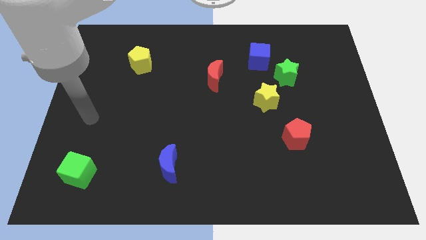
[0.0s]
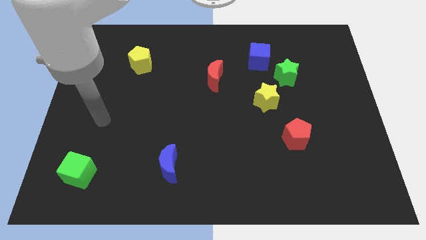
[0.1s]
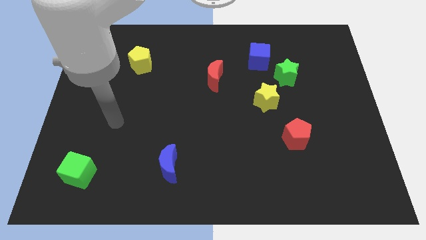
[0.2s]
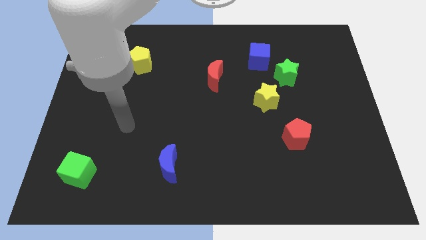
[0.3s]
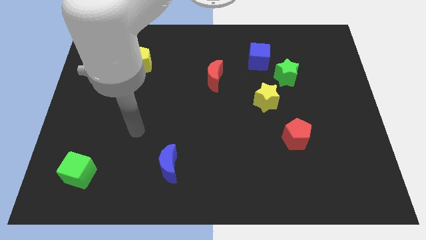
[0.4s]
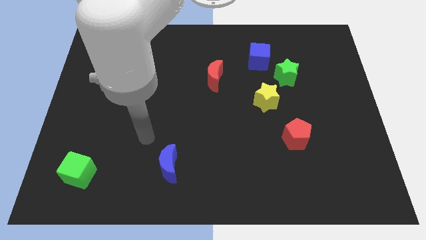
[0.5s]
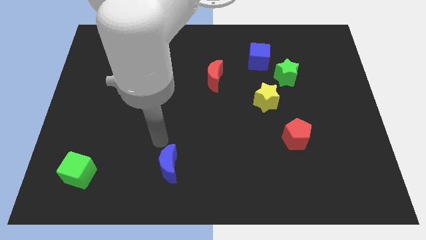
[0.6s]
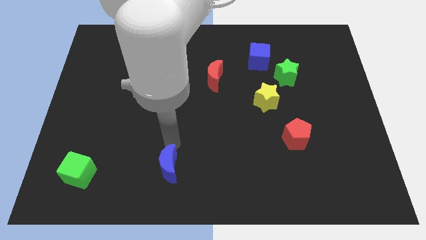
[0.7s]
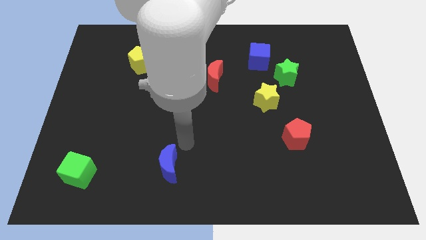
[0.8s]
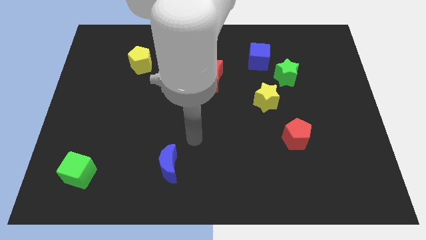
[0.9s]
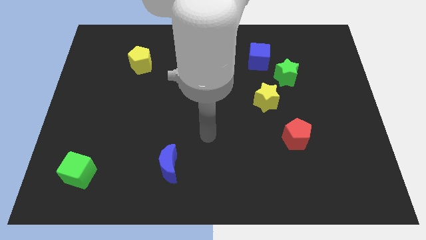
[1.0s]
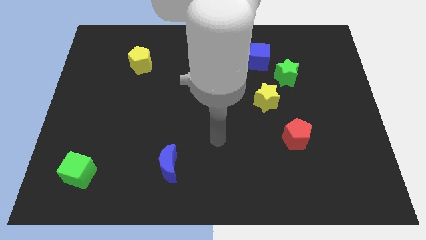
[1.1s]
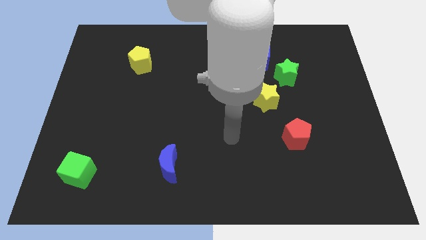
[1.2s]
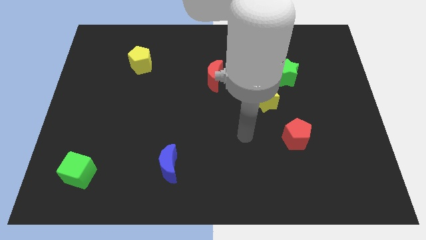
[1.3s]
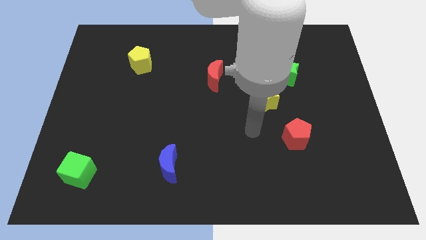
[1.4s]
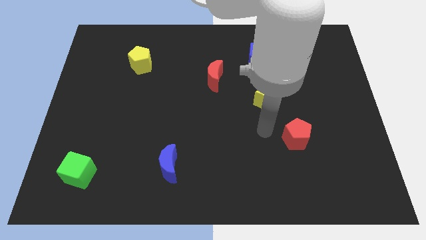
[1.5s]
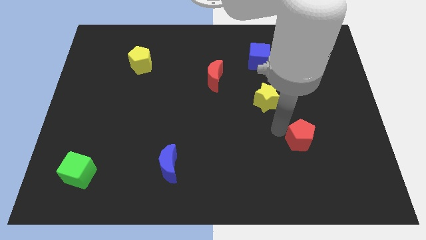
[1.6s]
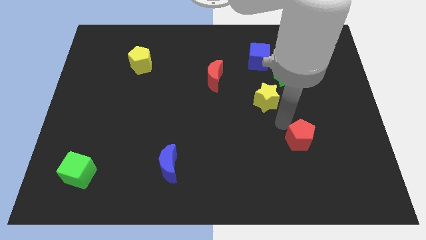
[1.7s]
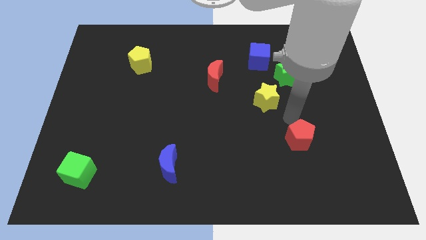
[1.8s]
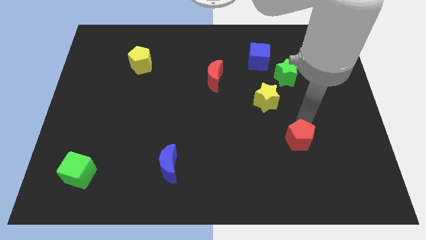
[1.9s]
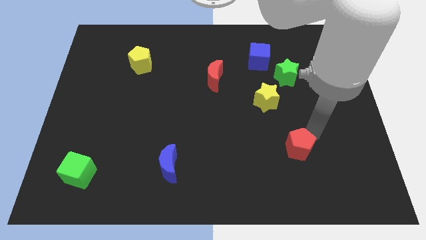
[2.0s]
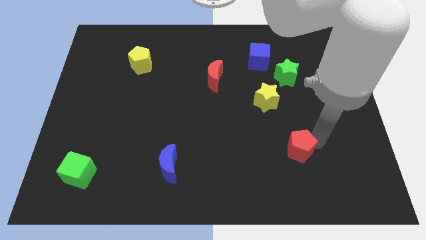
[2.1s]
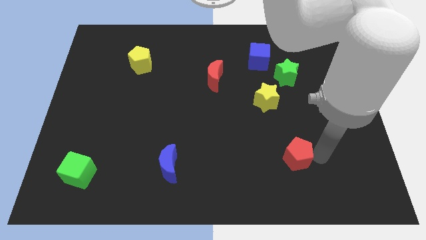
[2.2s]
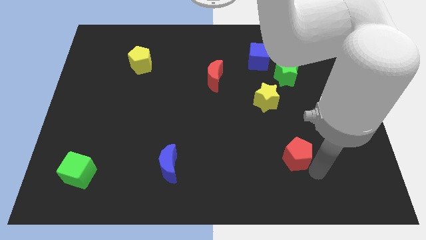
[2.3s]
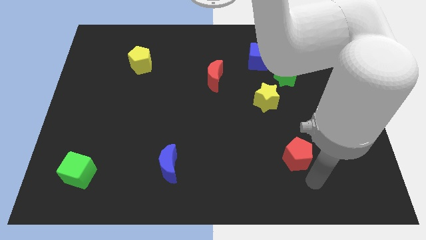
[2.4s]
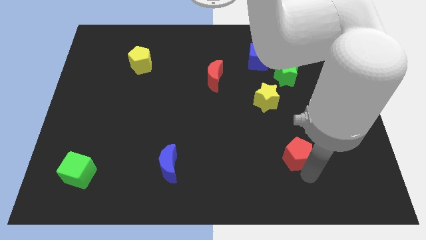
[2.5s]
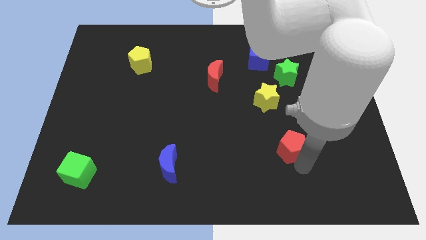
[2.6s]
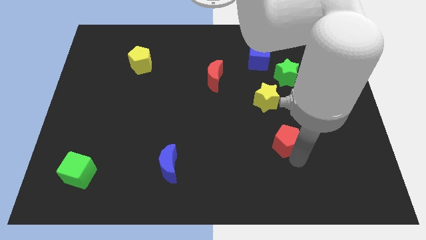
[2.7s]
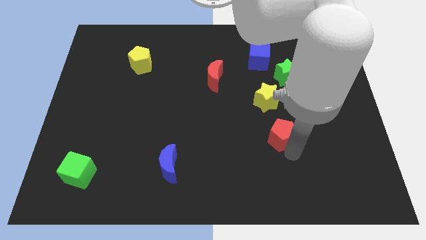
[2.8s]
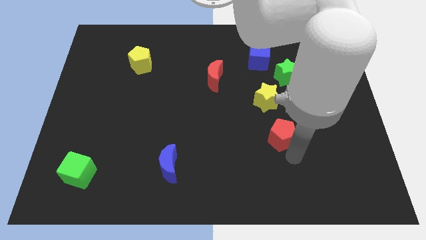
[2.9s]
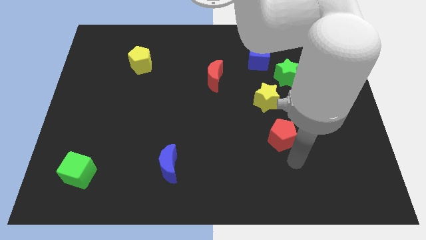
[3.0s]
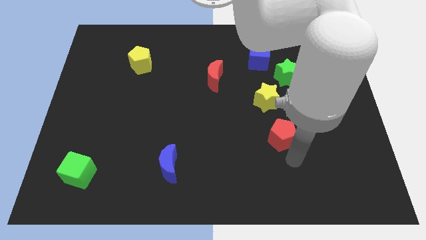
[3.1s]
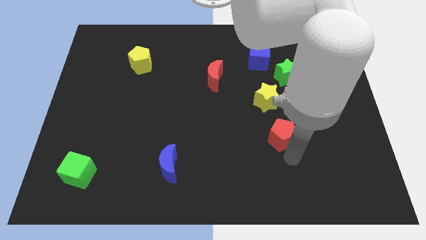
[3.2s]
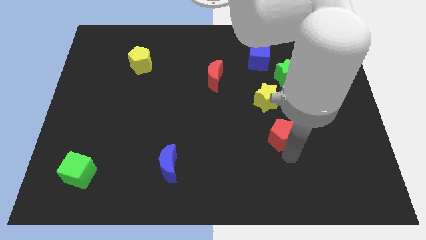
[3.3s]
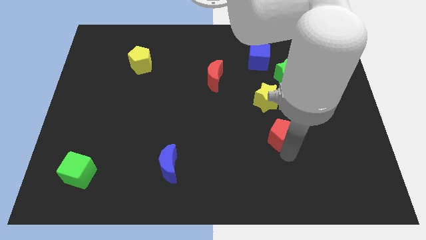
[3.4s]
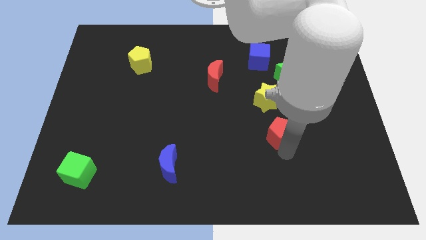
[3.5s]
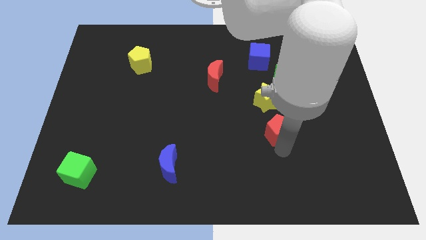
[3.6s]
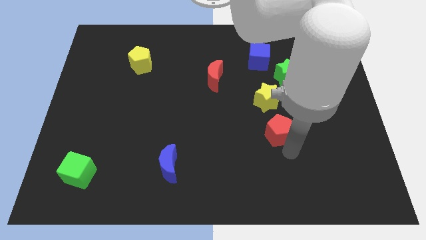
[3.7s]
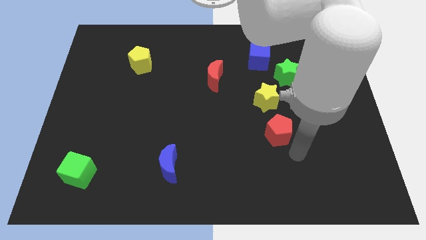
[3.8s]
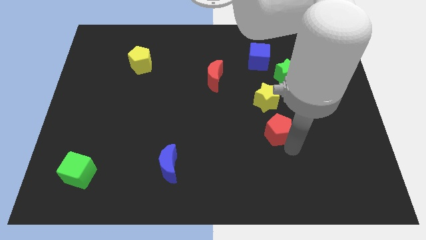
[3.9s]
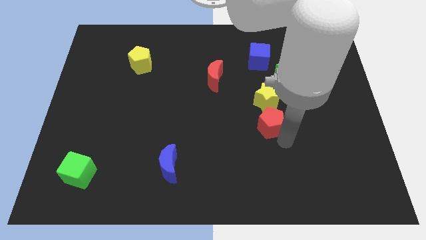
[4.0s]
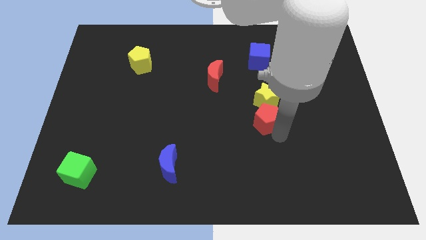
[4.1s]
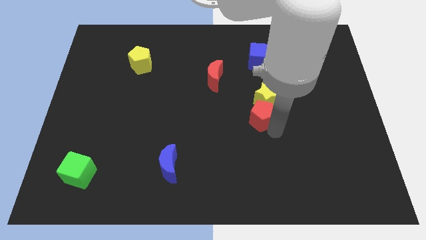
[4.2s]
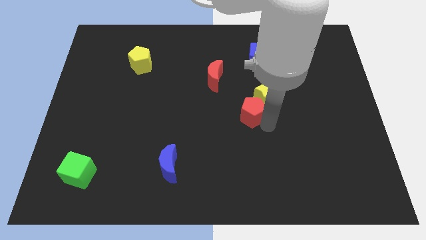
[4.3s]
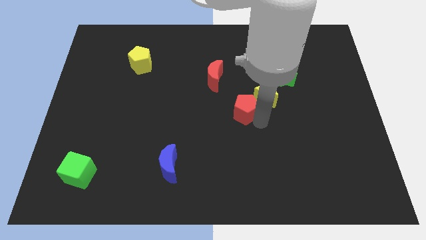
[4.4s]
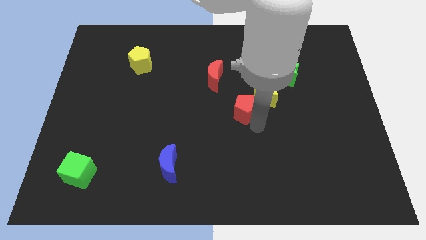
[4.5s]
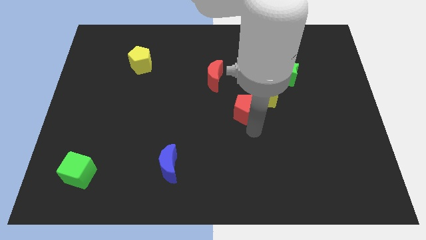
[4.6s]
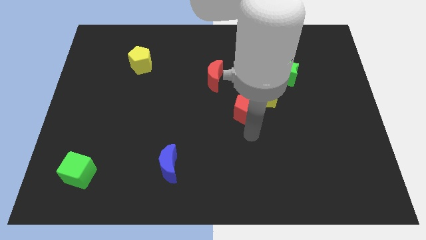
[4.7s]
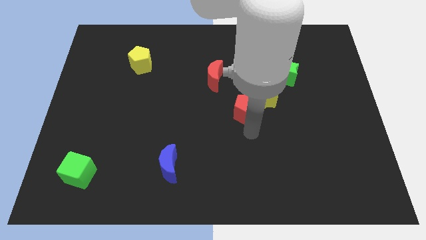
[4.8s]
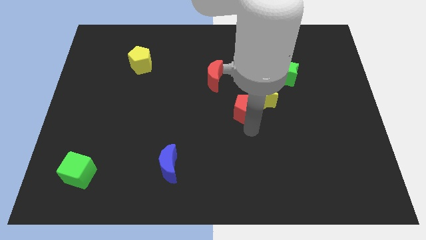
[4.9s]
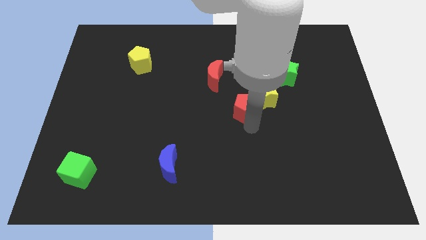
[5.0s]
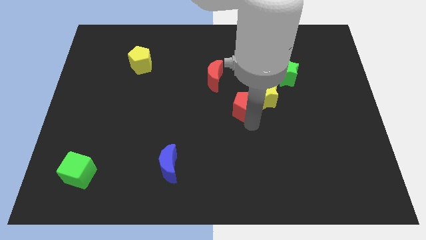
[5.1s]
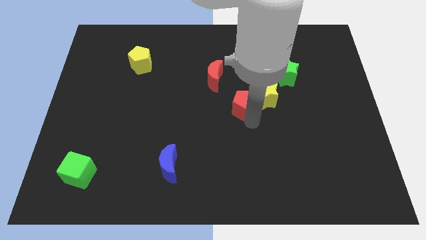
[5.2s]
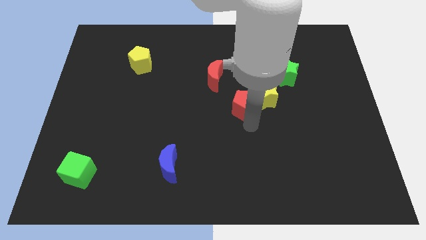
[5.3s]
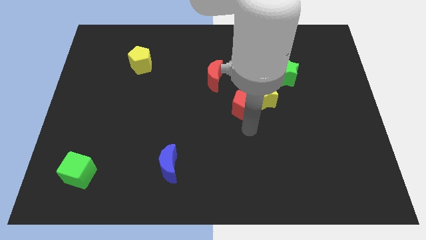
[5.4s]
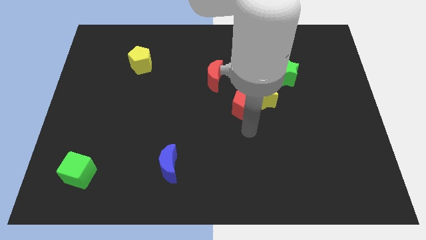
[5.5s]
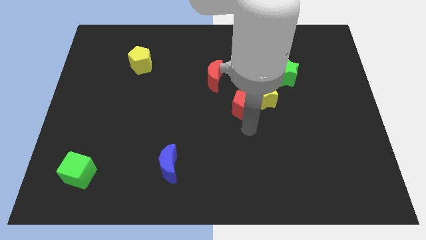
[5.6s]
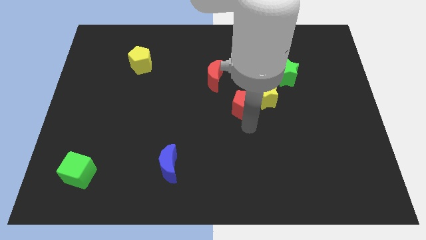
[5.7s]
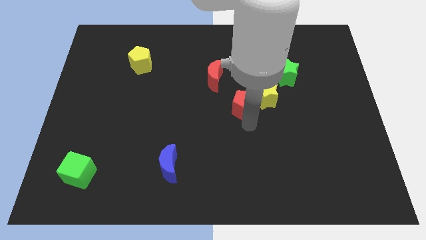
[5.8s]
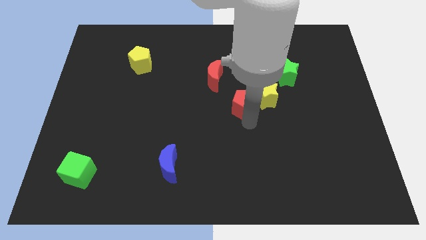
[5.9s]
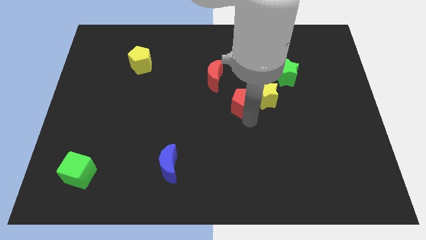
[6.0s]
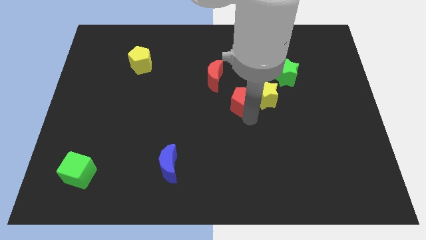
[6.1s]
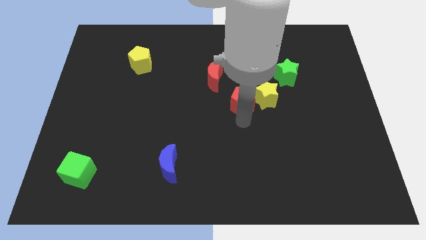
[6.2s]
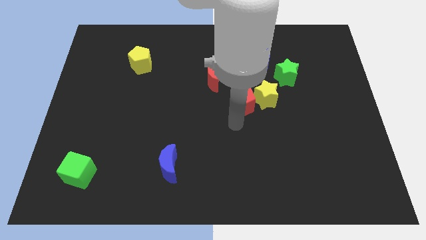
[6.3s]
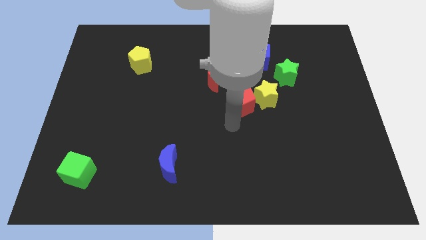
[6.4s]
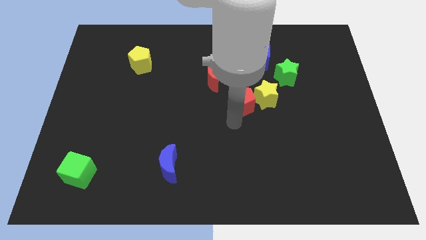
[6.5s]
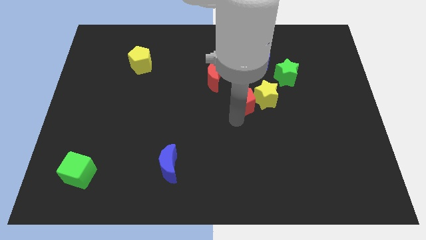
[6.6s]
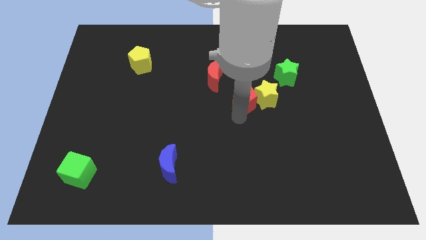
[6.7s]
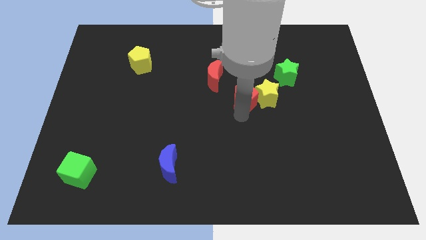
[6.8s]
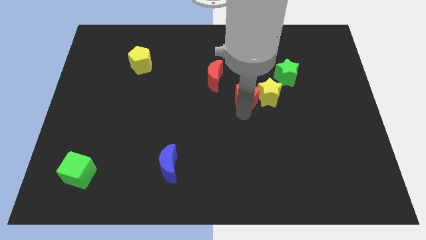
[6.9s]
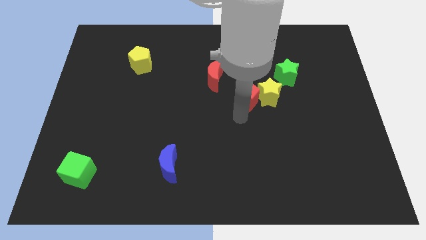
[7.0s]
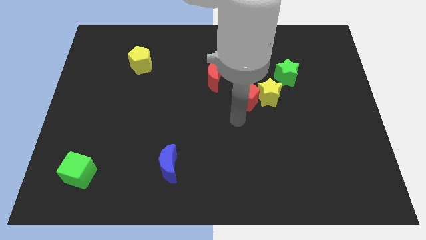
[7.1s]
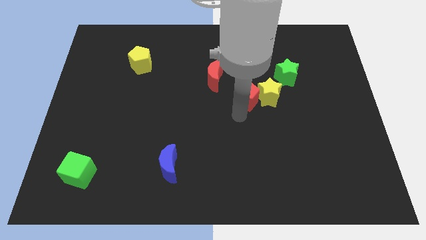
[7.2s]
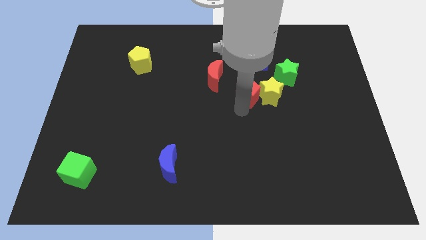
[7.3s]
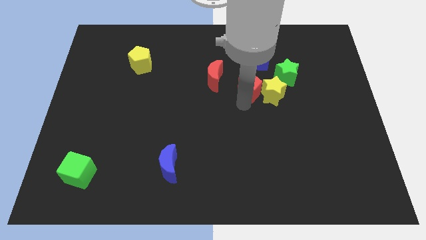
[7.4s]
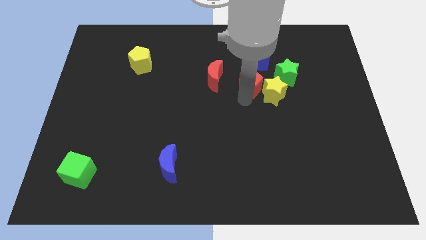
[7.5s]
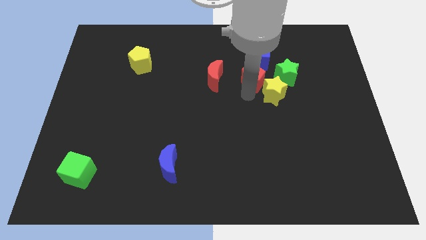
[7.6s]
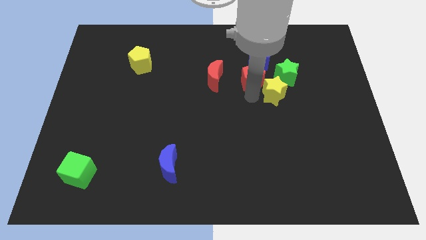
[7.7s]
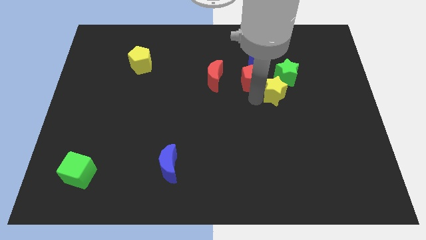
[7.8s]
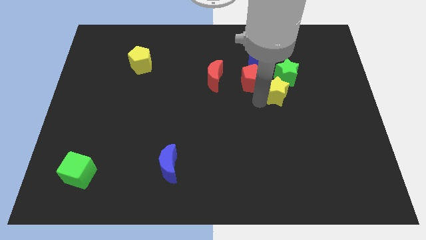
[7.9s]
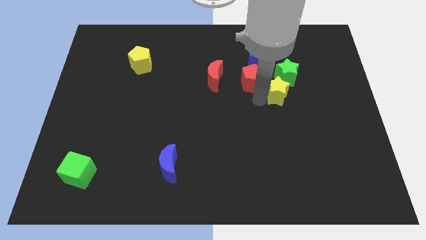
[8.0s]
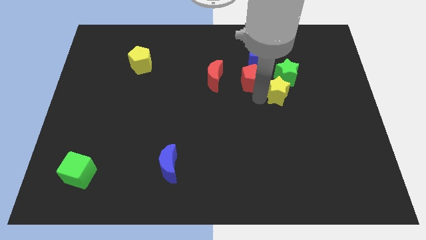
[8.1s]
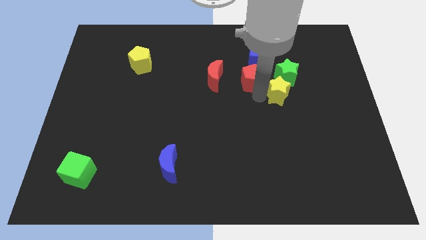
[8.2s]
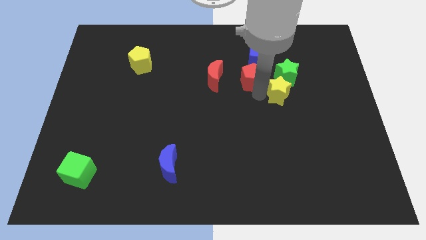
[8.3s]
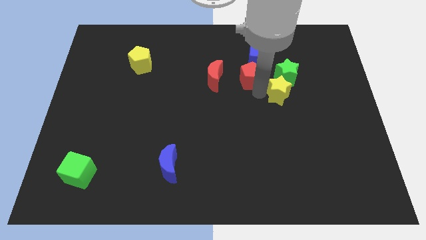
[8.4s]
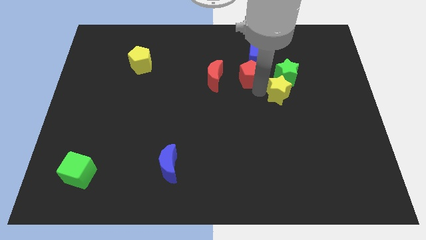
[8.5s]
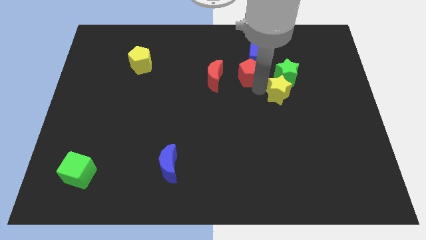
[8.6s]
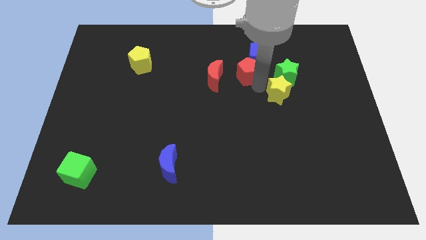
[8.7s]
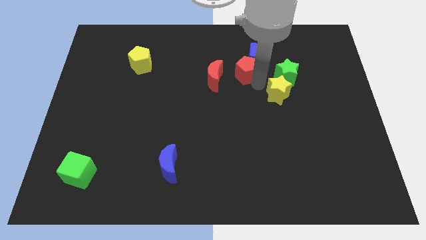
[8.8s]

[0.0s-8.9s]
put the red pentagon to the top right of the red moon
